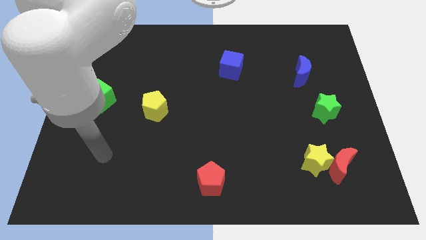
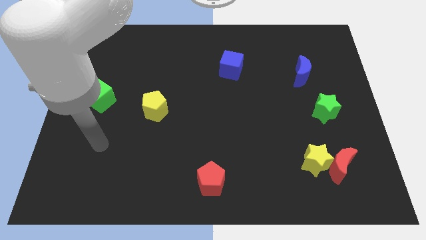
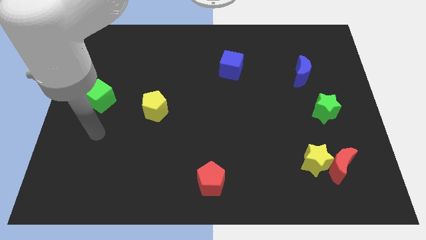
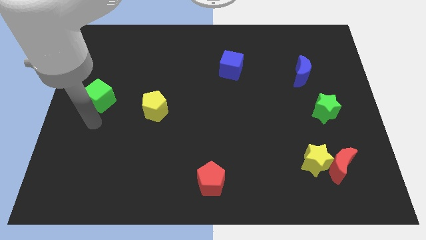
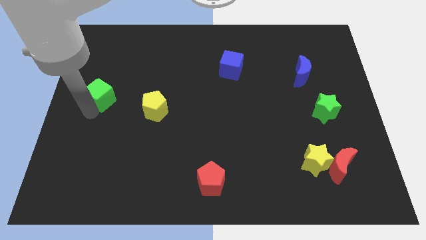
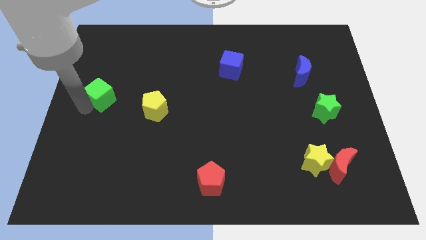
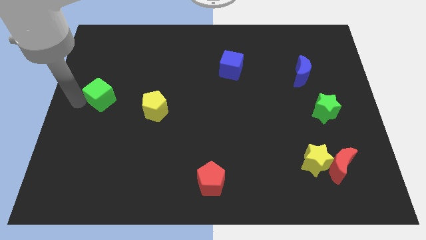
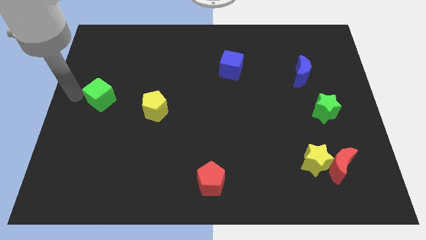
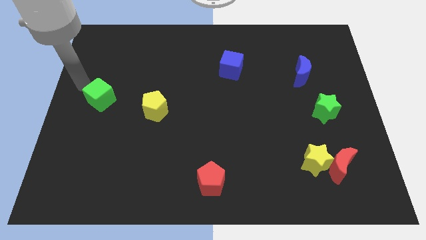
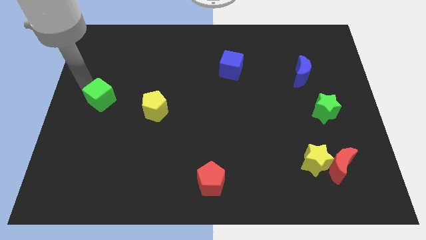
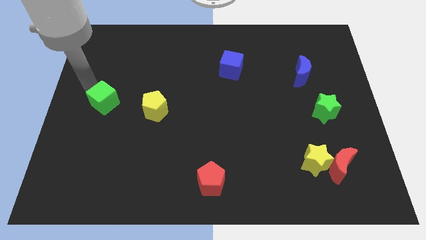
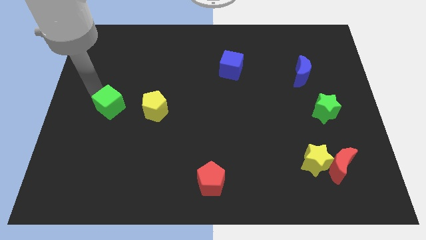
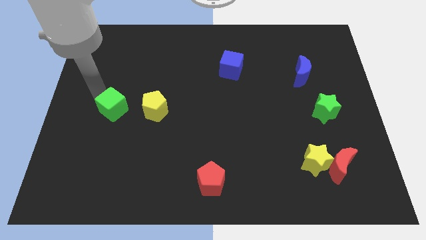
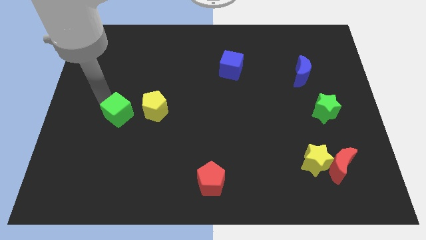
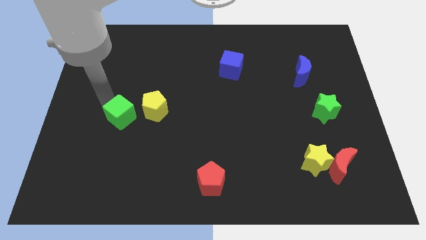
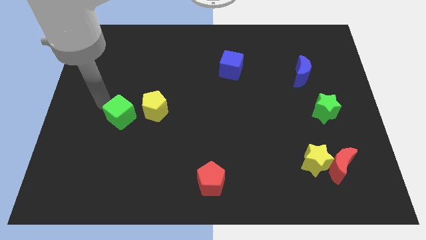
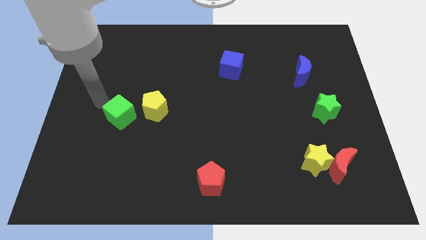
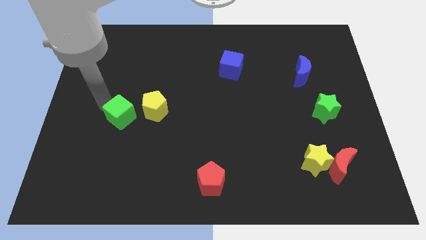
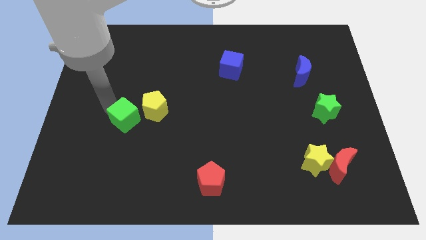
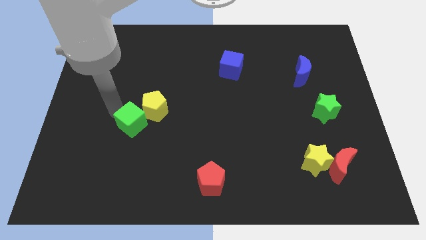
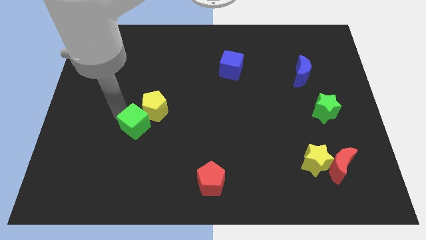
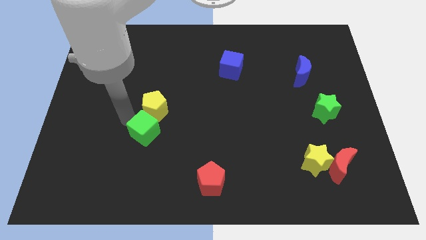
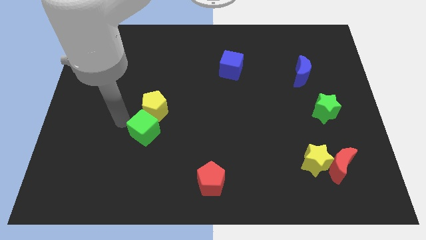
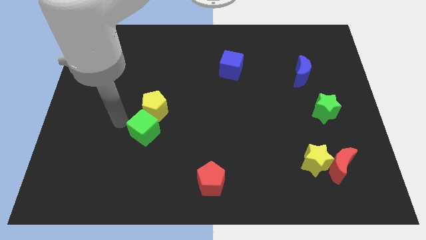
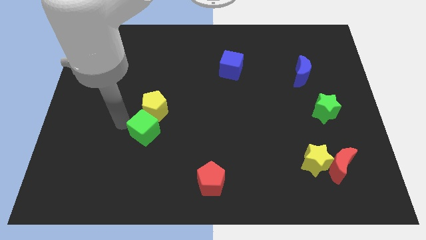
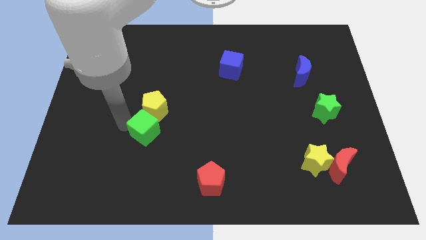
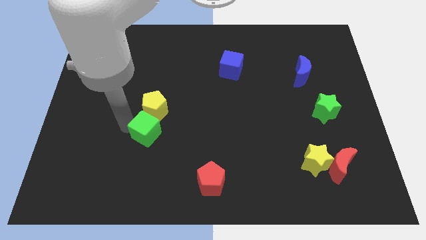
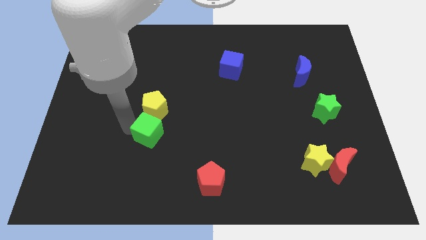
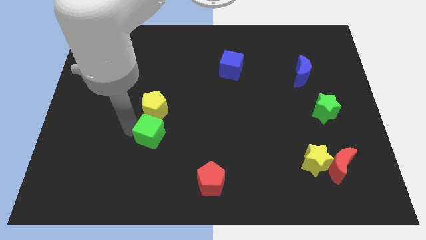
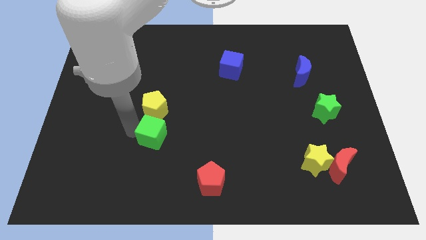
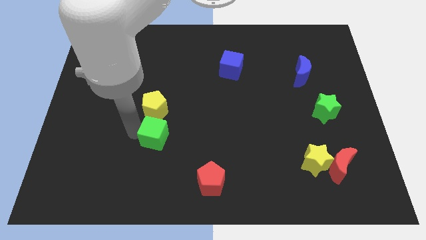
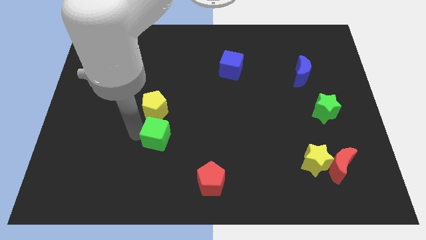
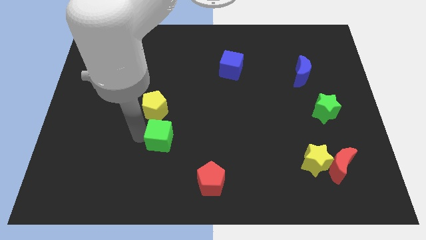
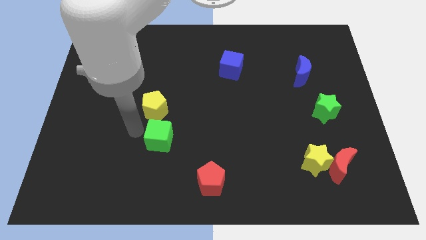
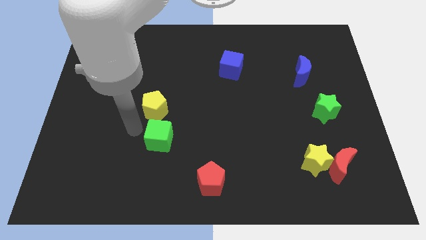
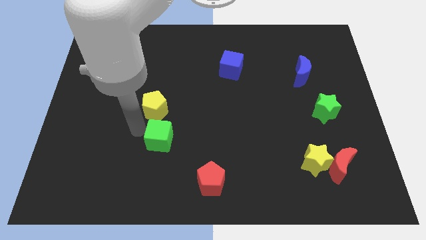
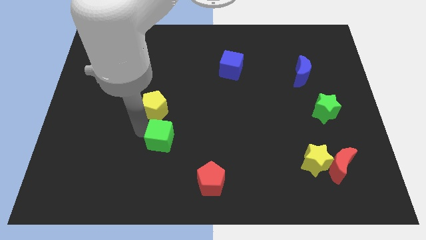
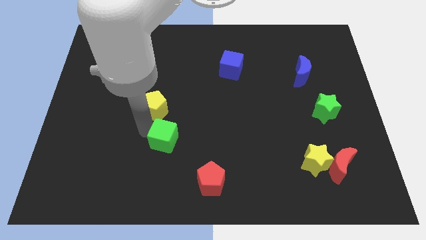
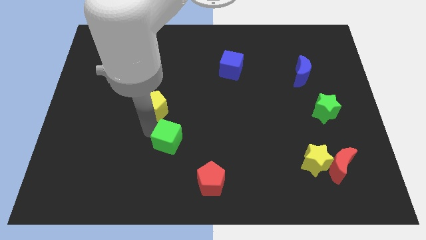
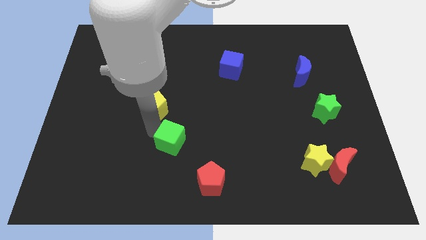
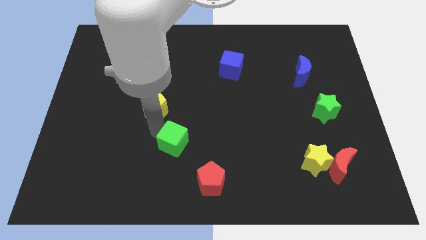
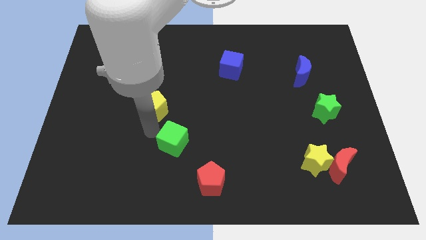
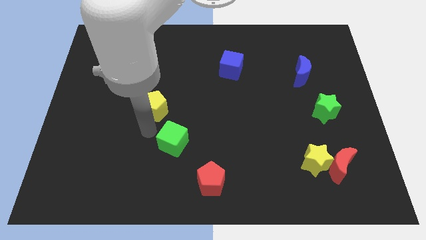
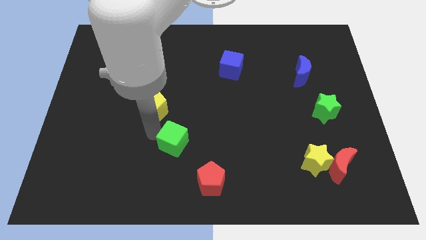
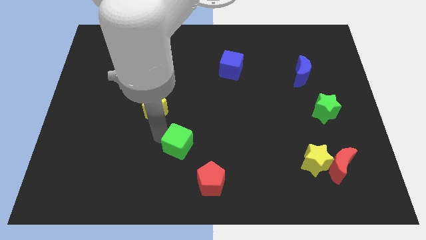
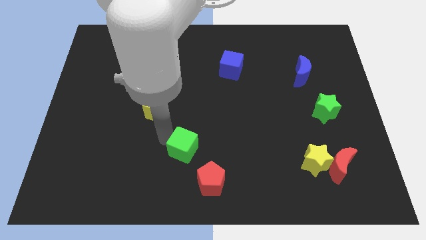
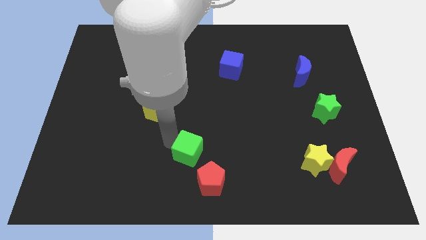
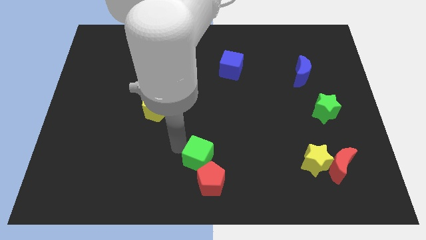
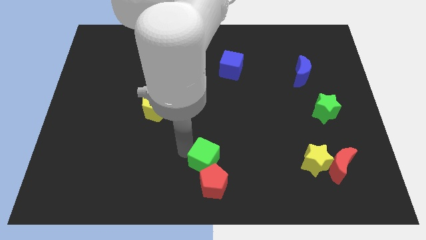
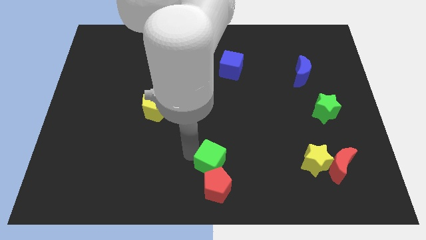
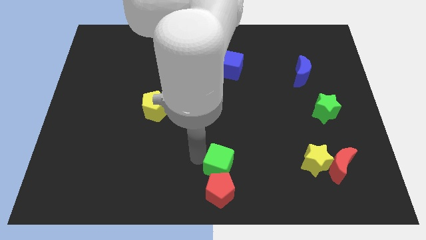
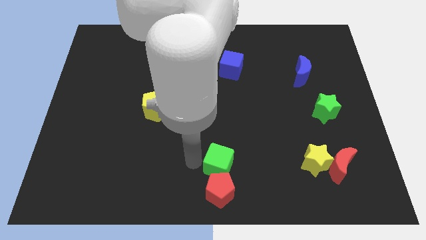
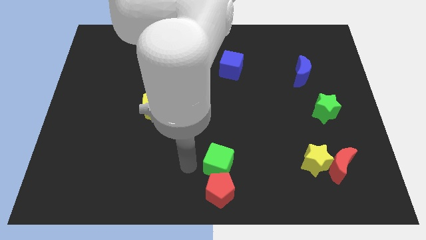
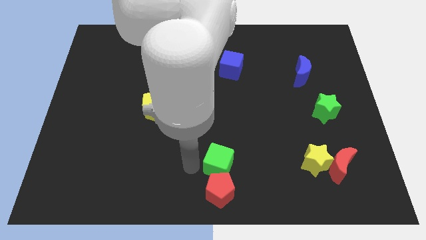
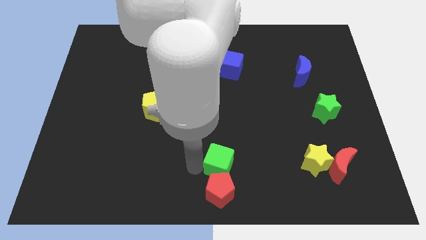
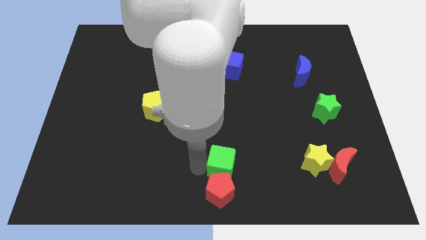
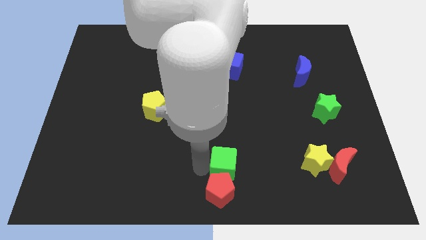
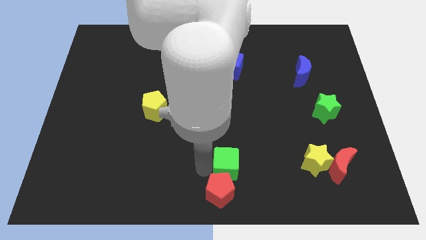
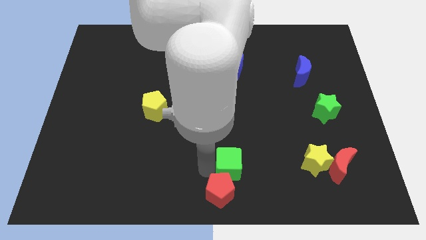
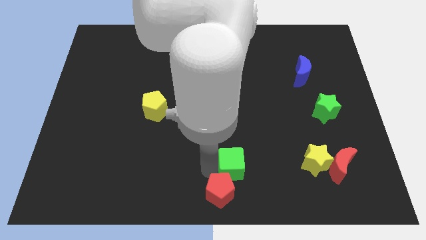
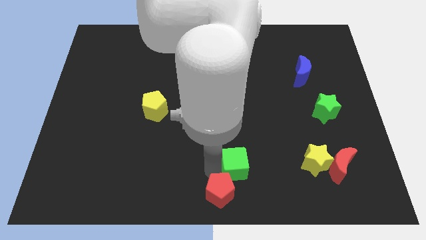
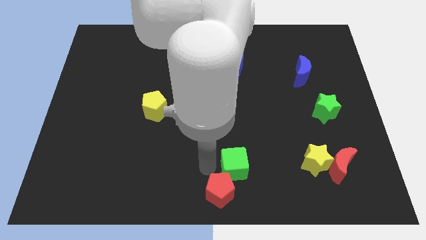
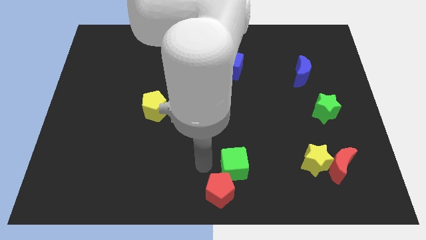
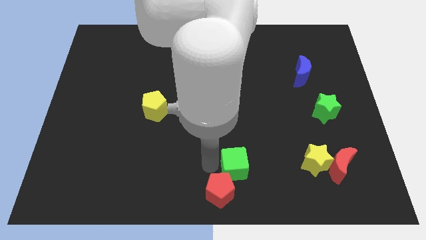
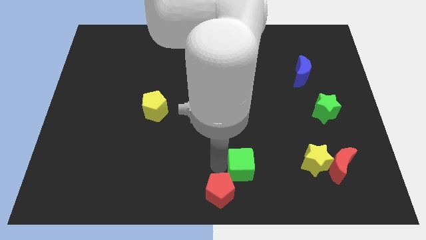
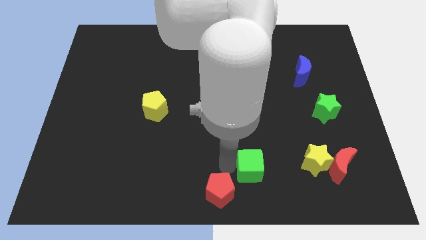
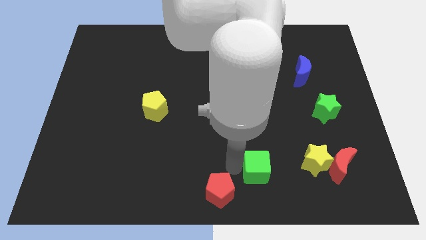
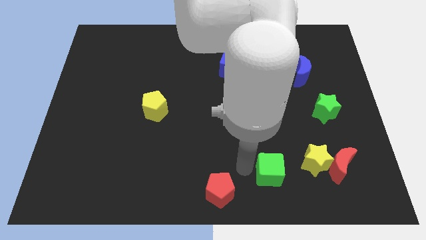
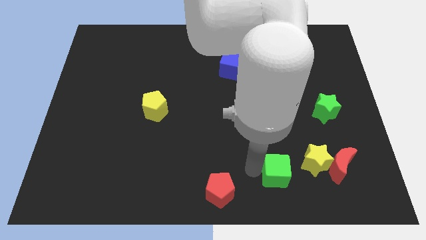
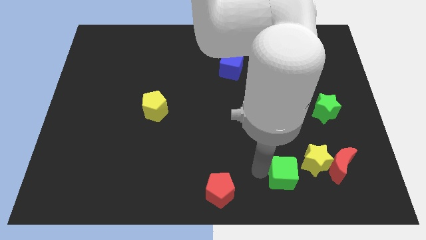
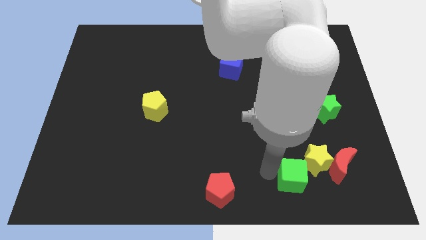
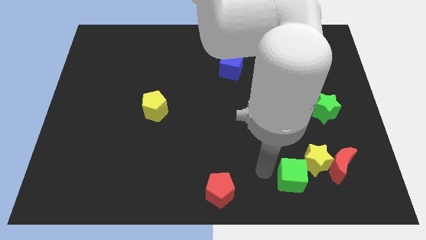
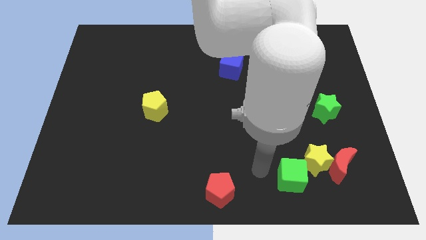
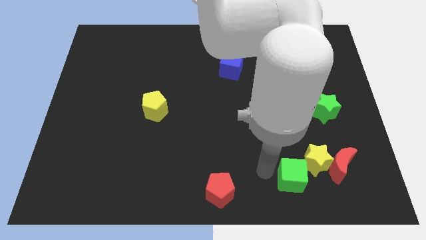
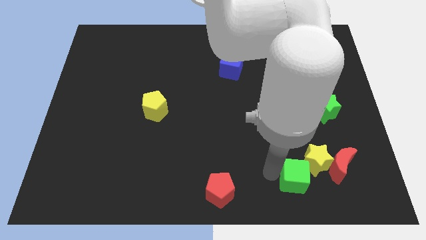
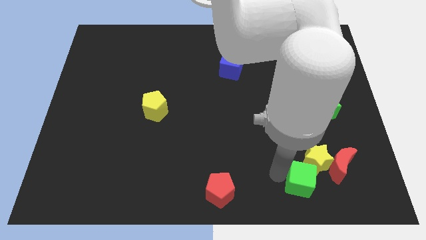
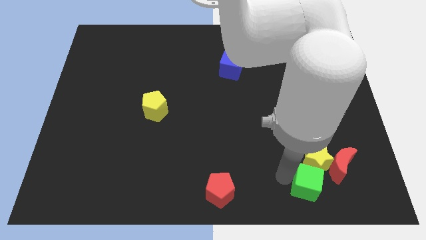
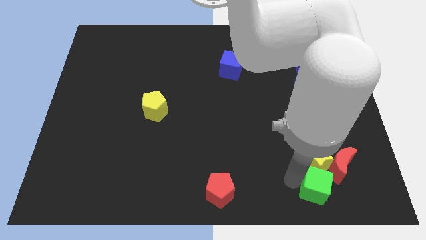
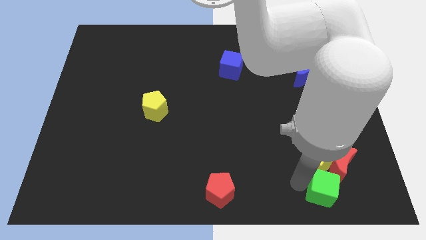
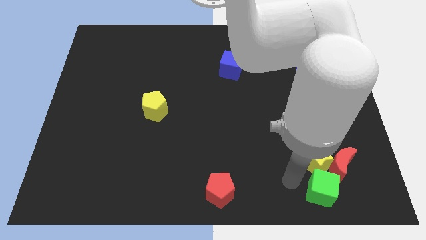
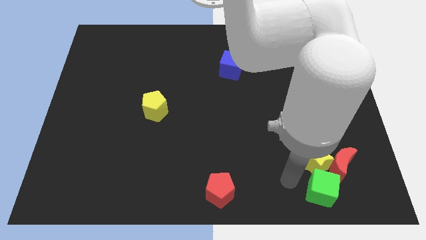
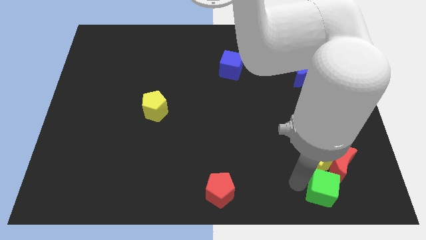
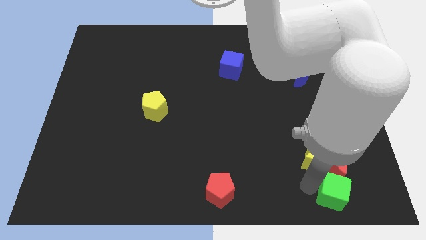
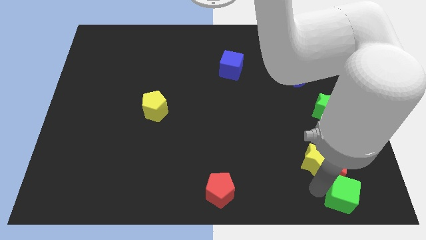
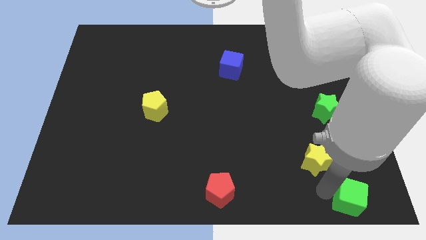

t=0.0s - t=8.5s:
move the green cube to the bottom right corner
